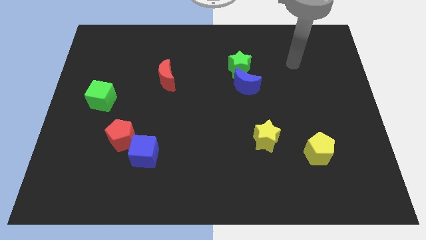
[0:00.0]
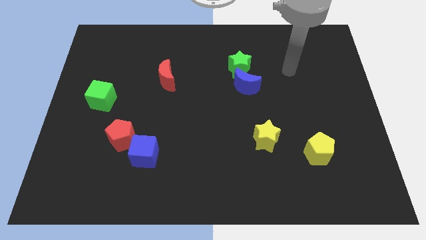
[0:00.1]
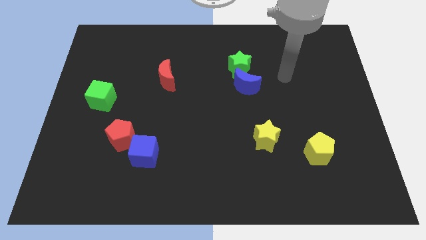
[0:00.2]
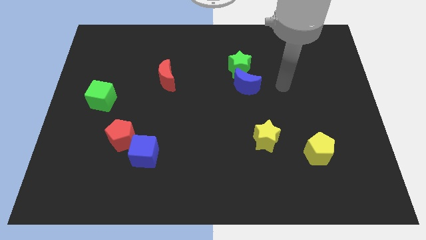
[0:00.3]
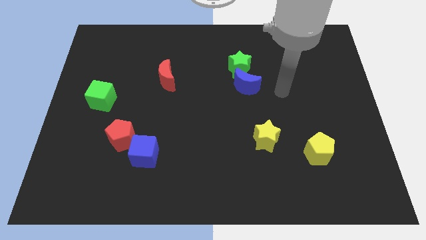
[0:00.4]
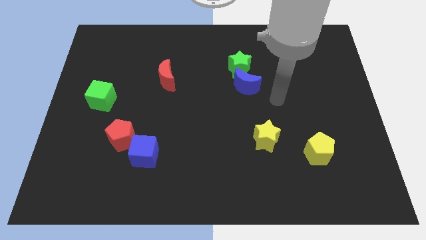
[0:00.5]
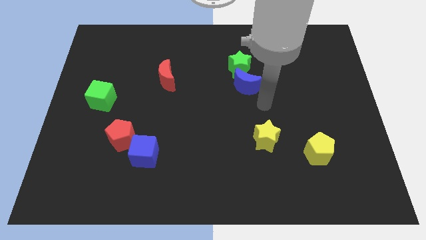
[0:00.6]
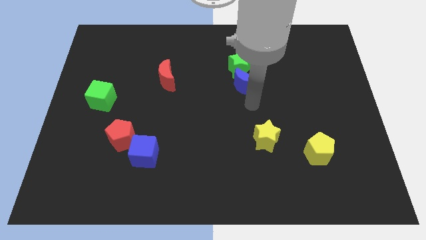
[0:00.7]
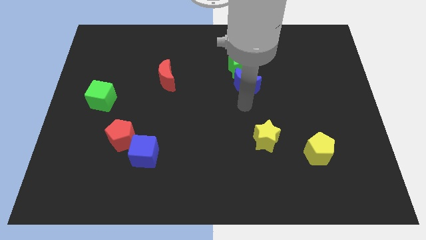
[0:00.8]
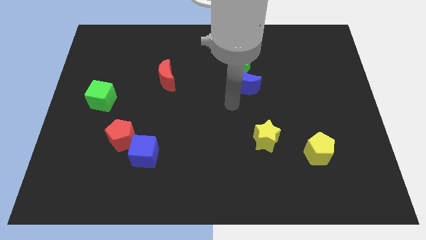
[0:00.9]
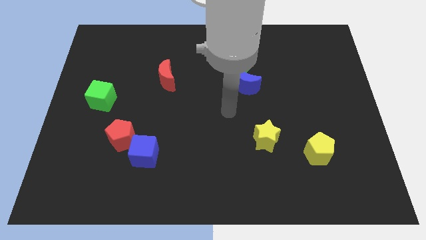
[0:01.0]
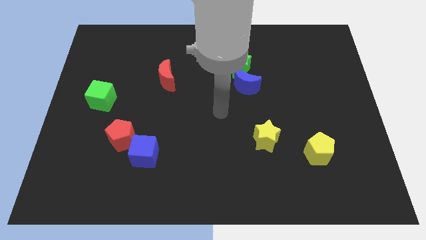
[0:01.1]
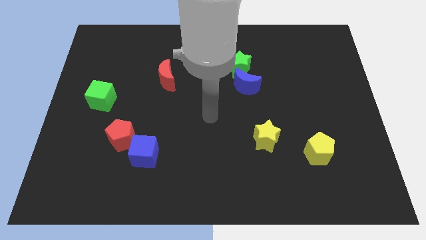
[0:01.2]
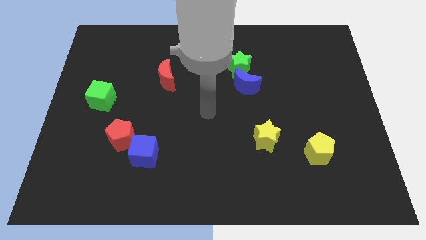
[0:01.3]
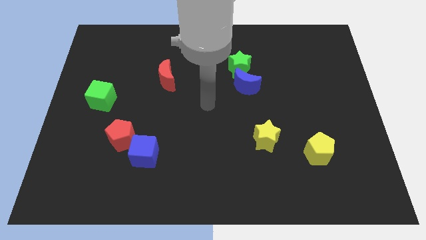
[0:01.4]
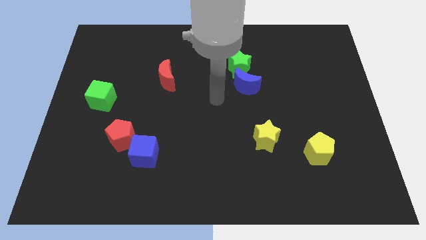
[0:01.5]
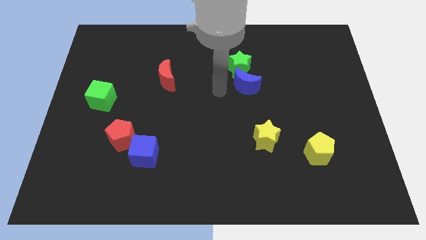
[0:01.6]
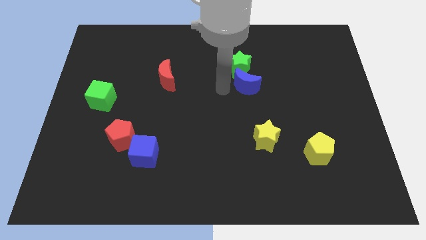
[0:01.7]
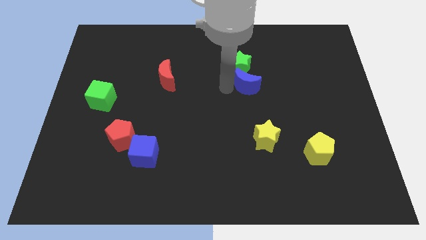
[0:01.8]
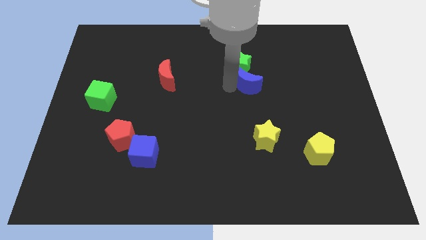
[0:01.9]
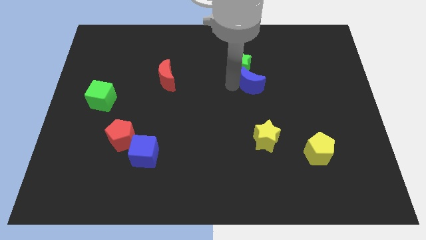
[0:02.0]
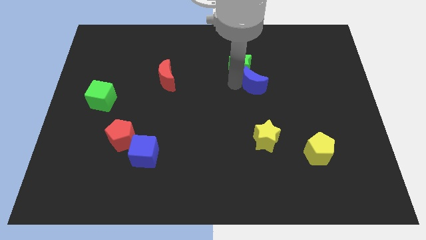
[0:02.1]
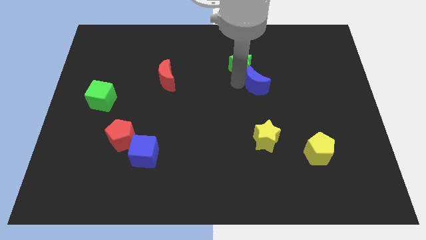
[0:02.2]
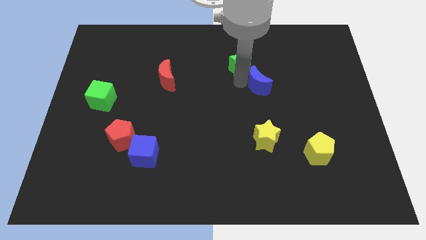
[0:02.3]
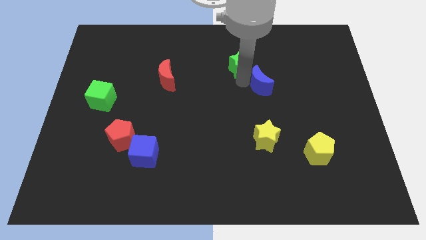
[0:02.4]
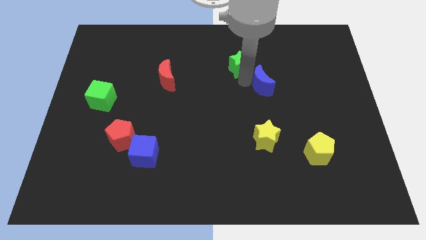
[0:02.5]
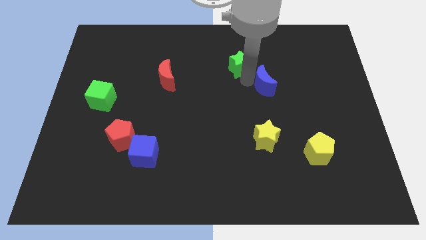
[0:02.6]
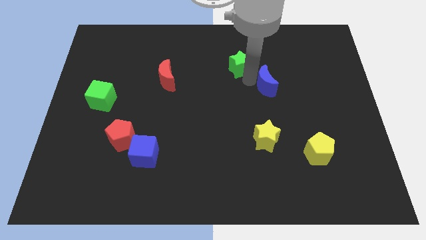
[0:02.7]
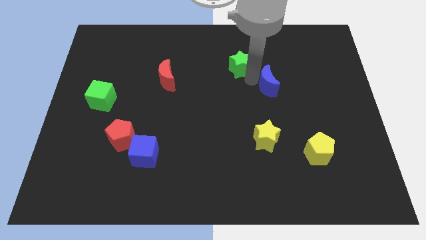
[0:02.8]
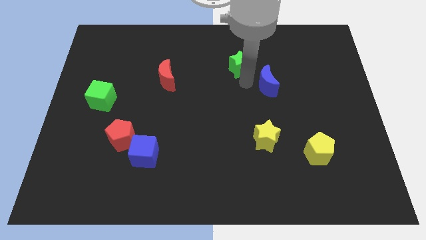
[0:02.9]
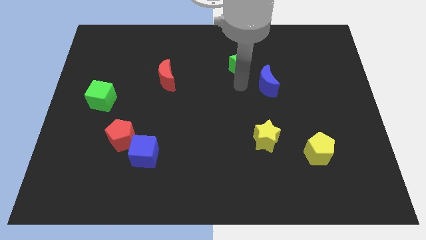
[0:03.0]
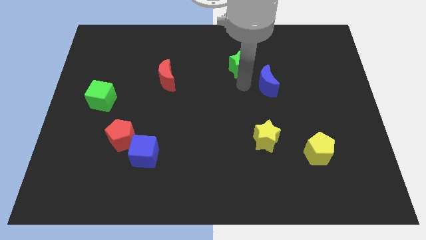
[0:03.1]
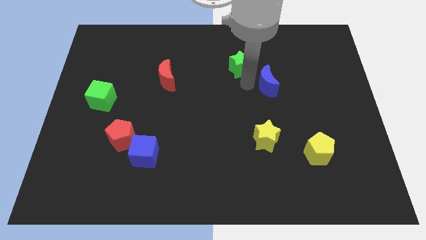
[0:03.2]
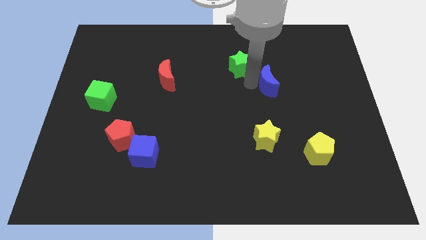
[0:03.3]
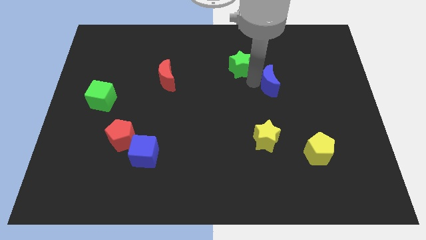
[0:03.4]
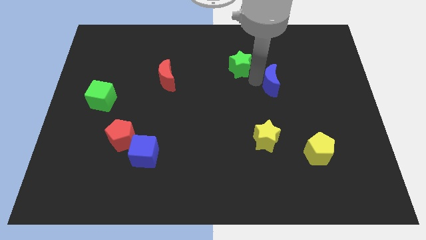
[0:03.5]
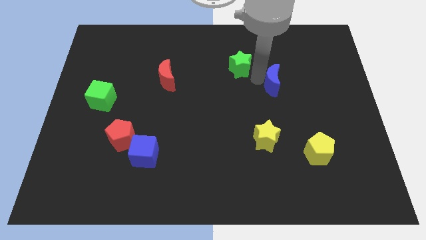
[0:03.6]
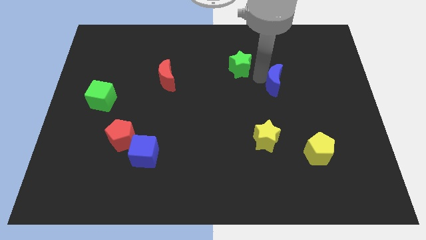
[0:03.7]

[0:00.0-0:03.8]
push the blue moon a little right

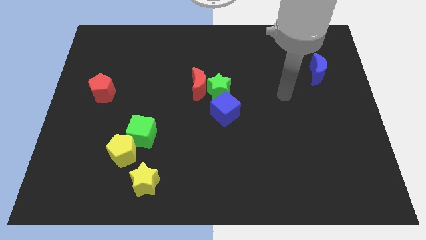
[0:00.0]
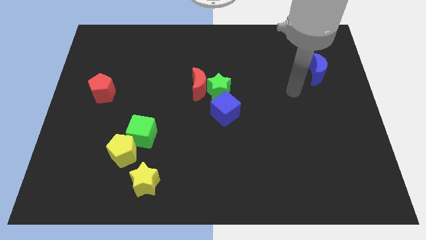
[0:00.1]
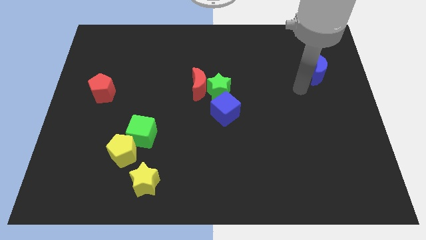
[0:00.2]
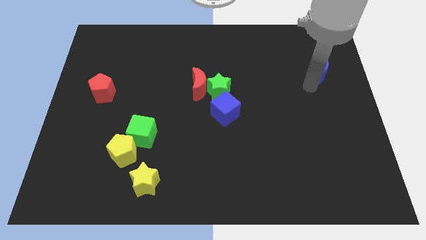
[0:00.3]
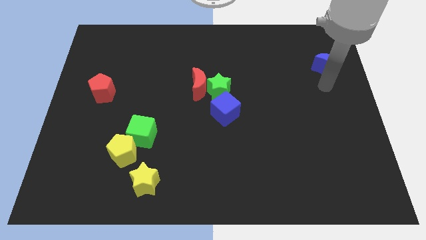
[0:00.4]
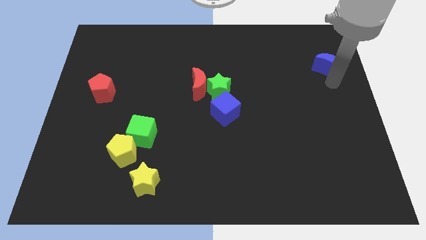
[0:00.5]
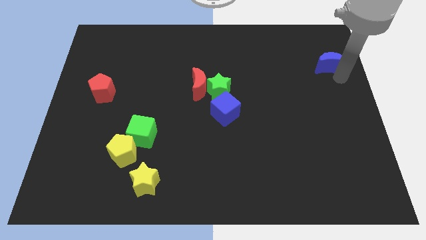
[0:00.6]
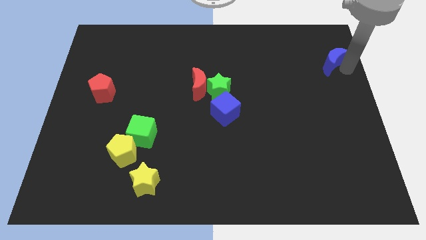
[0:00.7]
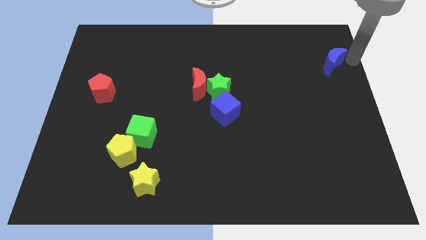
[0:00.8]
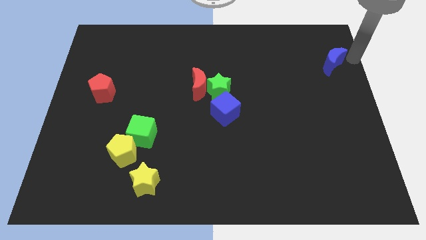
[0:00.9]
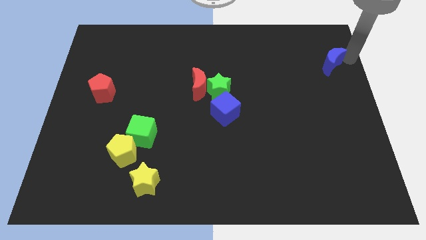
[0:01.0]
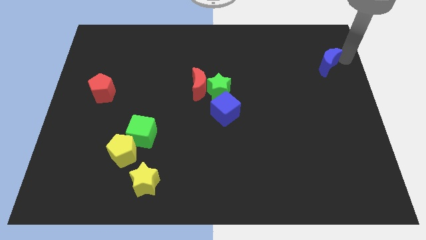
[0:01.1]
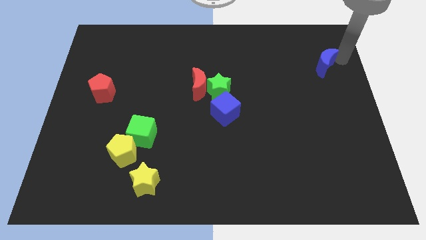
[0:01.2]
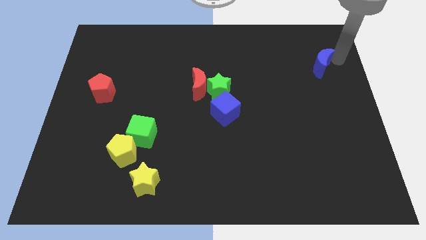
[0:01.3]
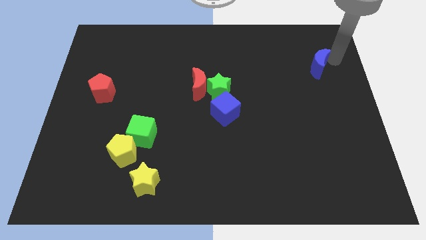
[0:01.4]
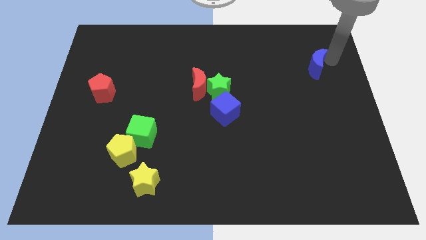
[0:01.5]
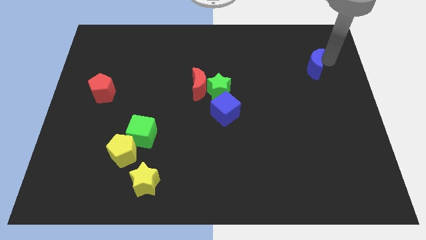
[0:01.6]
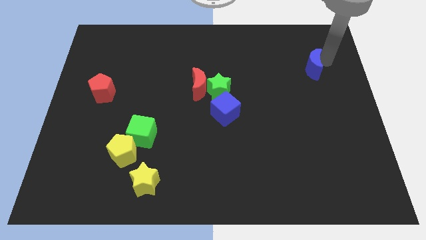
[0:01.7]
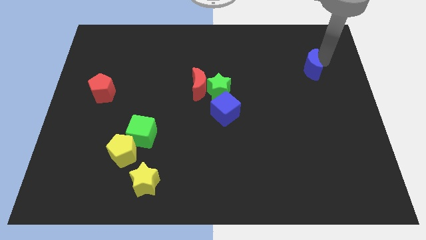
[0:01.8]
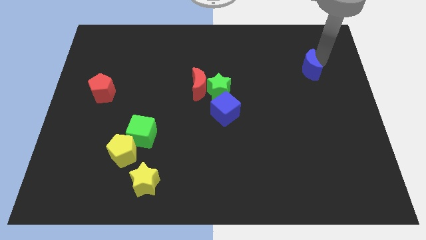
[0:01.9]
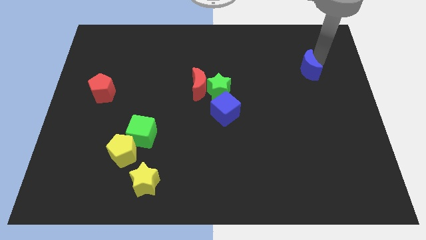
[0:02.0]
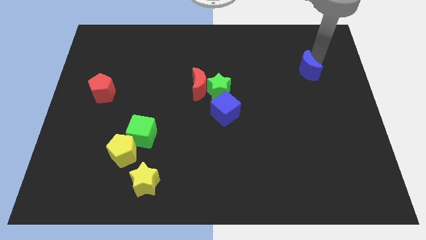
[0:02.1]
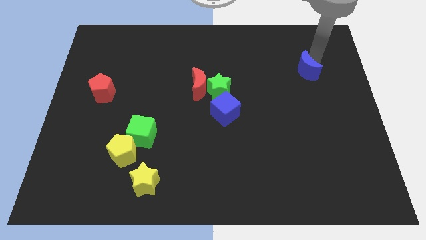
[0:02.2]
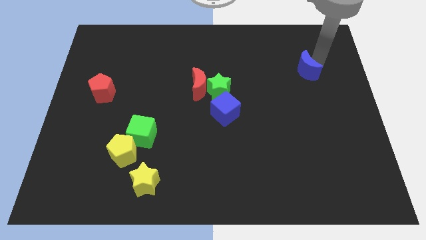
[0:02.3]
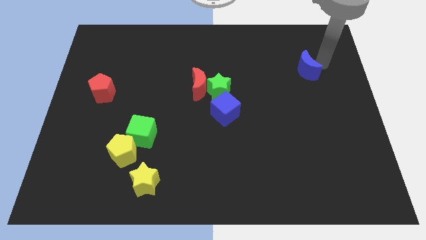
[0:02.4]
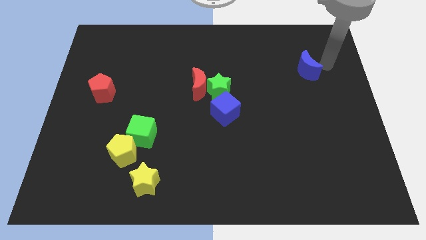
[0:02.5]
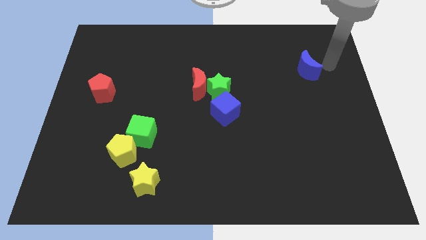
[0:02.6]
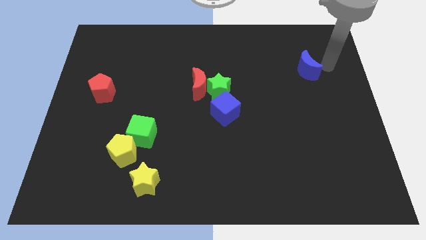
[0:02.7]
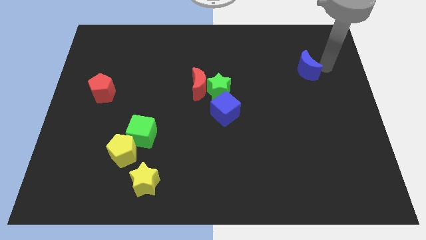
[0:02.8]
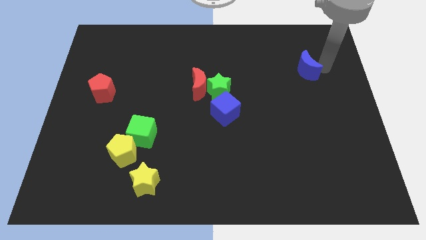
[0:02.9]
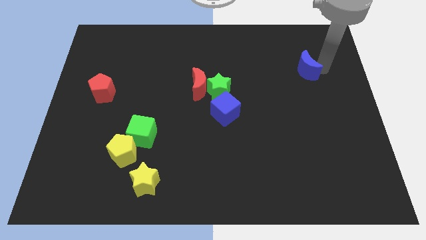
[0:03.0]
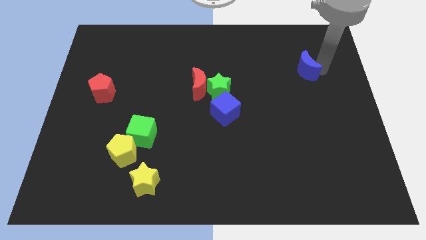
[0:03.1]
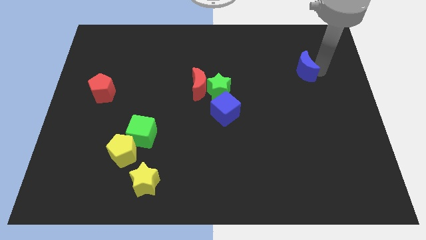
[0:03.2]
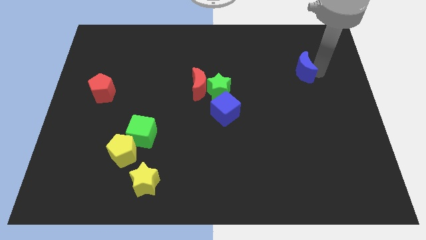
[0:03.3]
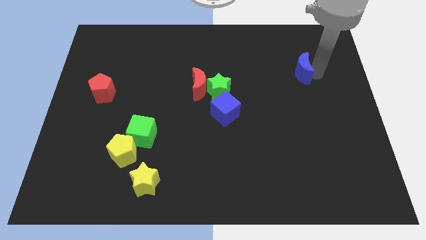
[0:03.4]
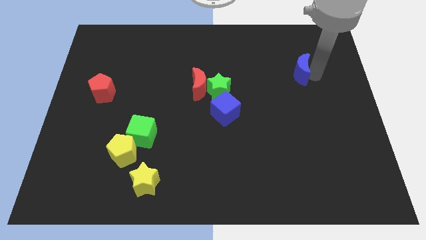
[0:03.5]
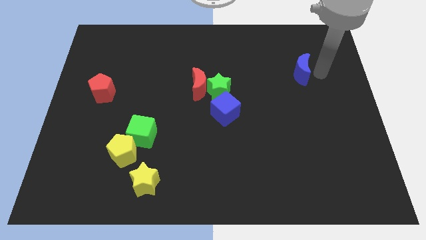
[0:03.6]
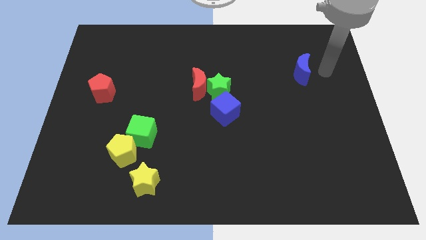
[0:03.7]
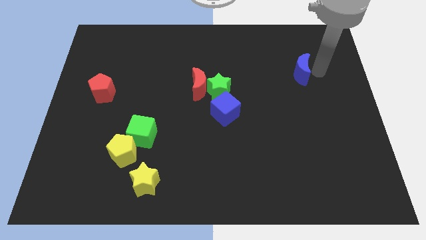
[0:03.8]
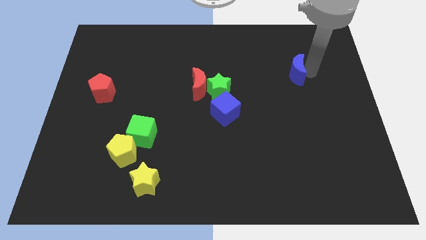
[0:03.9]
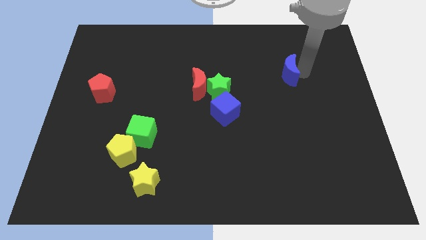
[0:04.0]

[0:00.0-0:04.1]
push the blue moon to the left a little bit

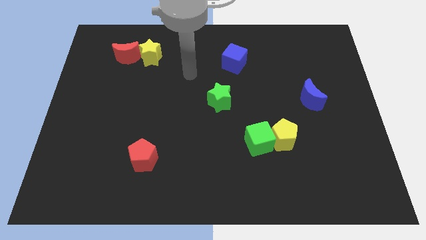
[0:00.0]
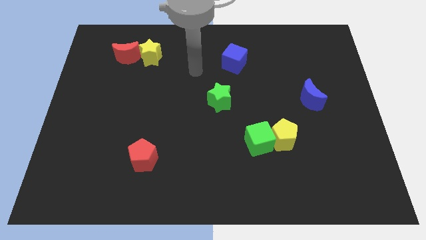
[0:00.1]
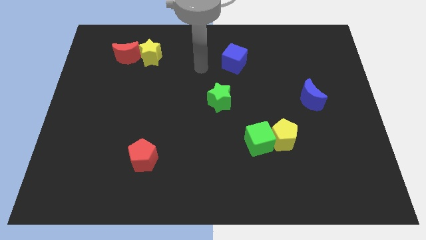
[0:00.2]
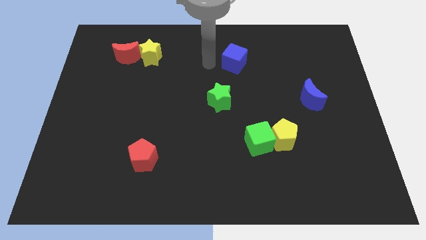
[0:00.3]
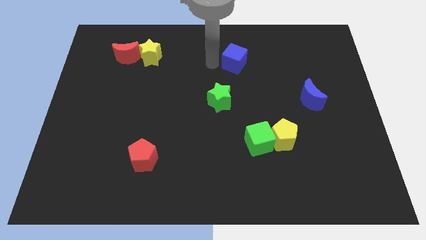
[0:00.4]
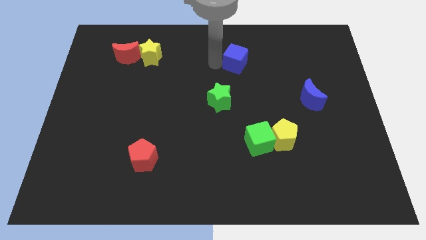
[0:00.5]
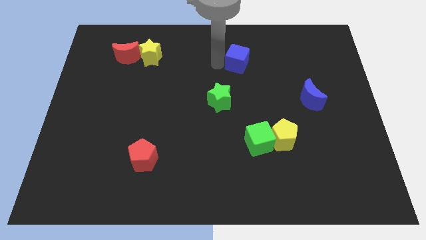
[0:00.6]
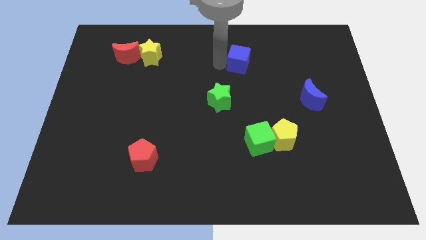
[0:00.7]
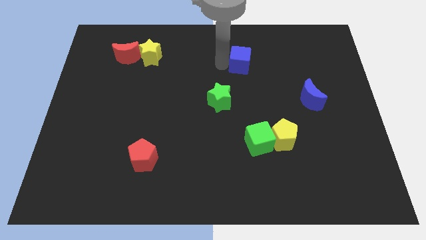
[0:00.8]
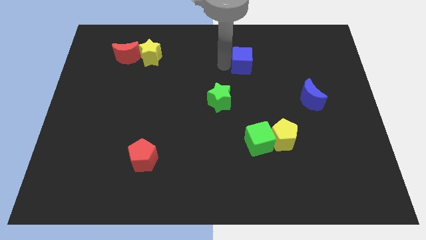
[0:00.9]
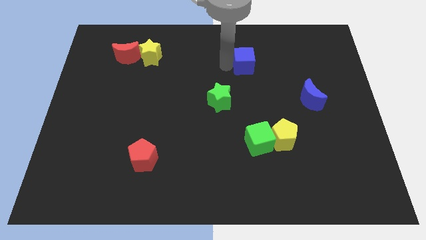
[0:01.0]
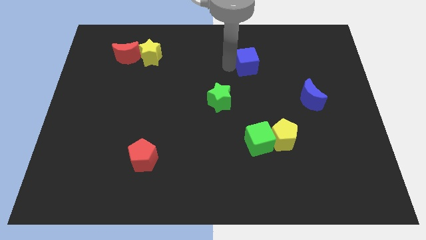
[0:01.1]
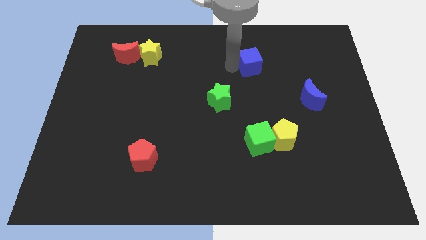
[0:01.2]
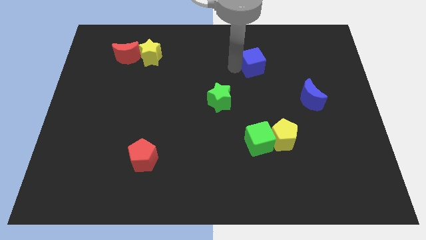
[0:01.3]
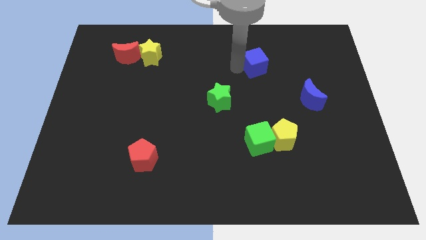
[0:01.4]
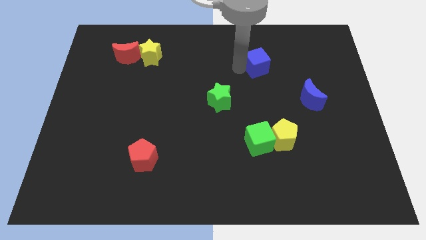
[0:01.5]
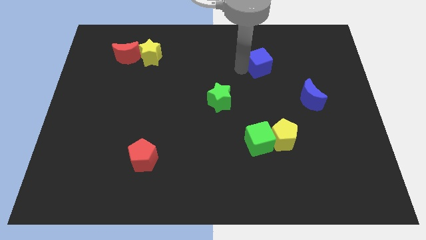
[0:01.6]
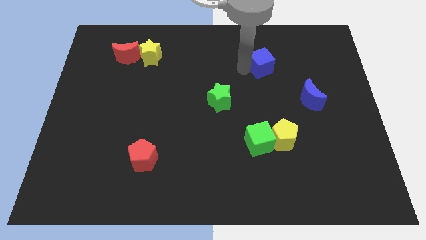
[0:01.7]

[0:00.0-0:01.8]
slide the blue cube right somewhat
